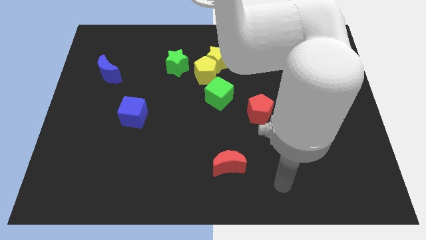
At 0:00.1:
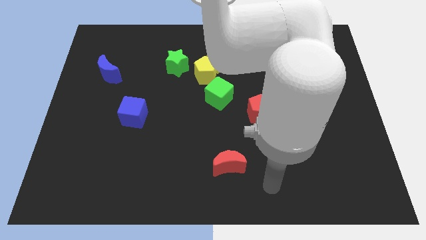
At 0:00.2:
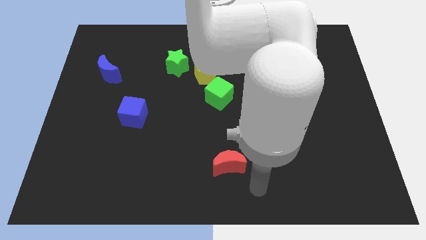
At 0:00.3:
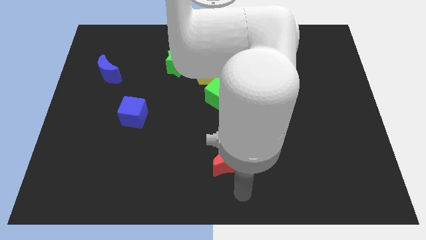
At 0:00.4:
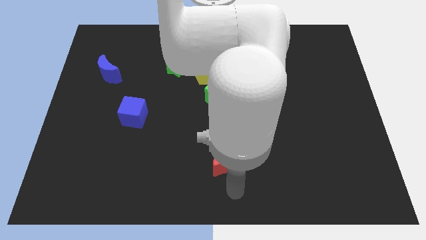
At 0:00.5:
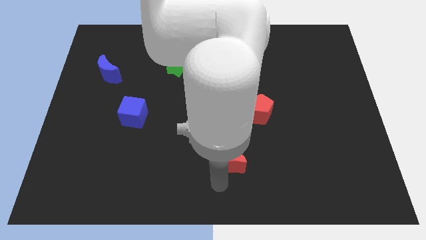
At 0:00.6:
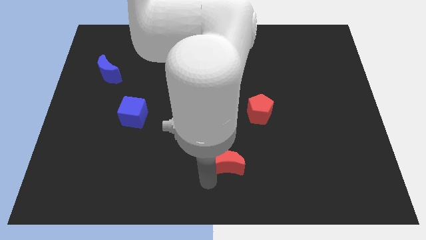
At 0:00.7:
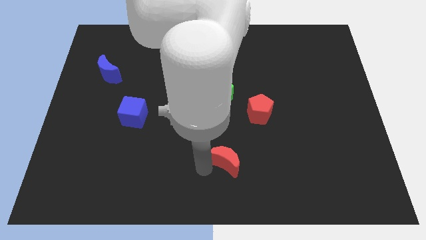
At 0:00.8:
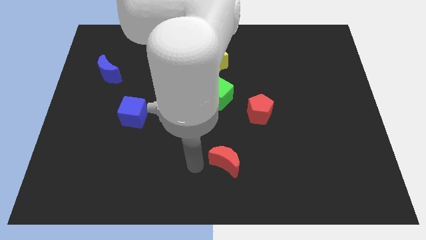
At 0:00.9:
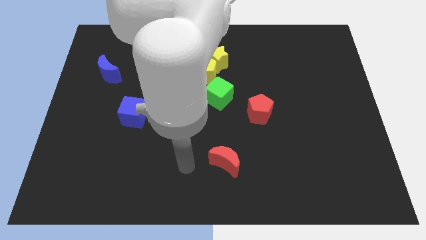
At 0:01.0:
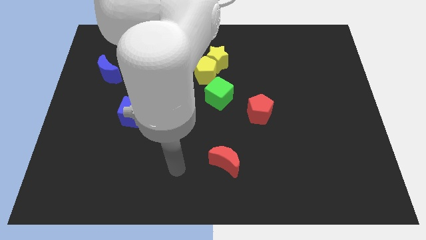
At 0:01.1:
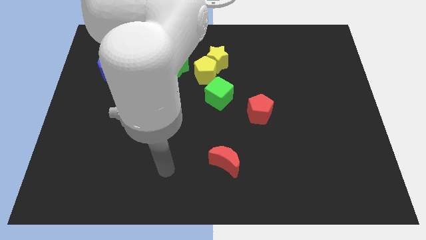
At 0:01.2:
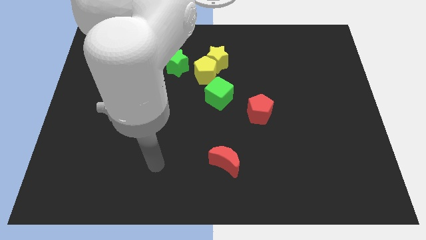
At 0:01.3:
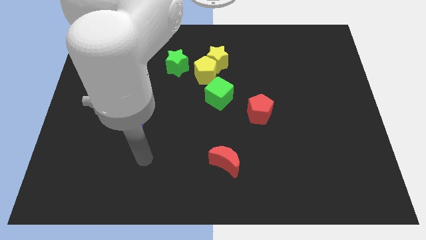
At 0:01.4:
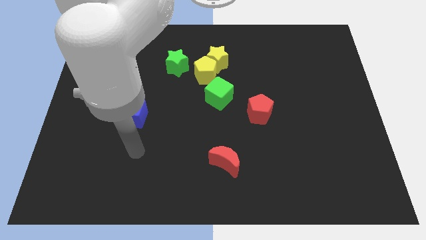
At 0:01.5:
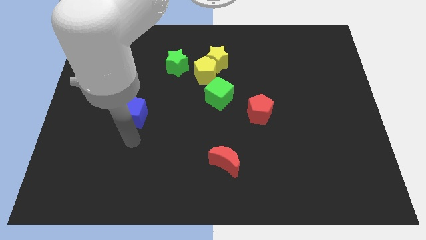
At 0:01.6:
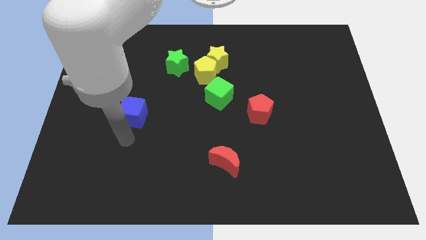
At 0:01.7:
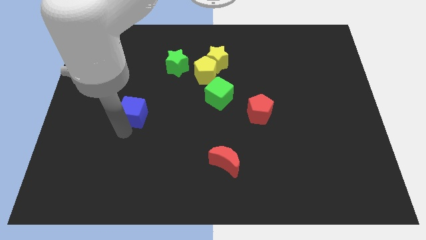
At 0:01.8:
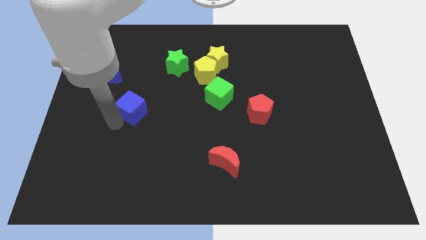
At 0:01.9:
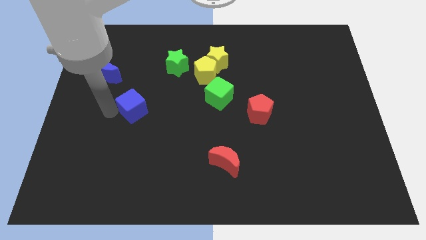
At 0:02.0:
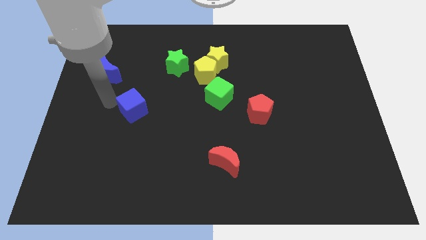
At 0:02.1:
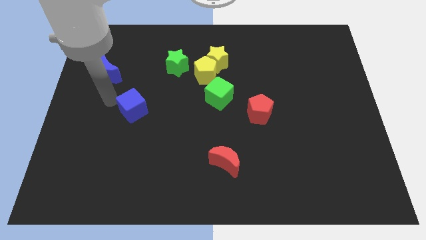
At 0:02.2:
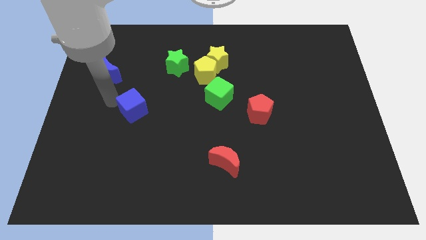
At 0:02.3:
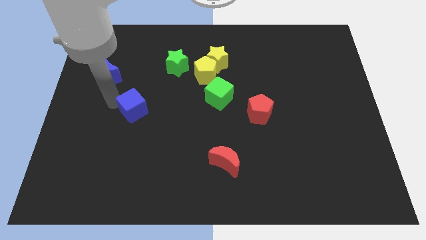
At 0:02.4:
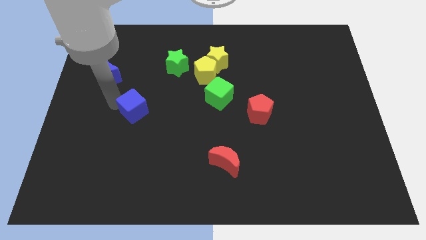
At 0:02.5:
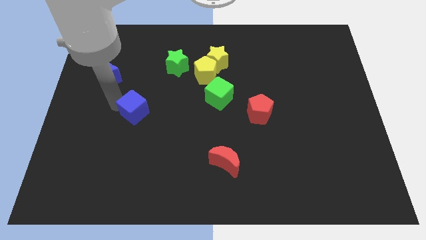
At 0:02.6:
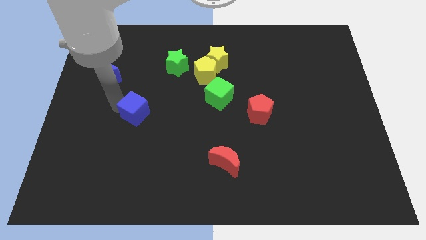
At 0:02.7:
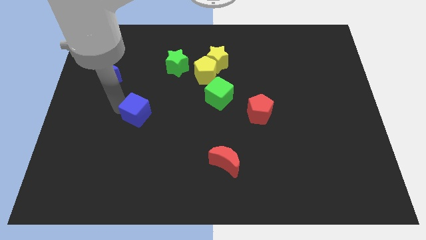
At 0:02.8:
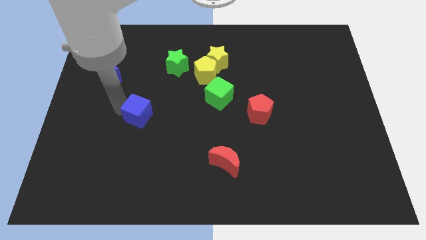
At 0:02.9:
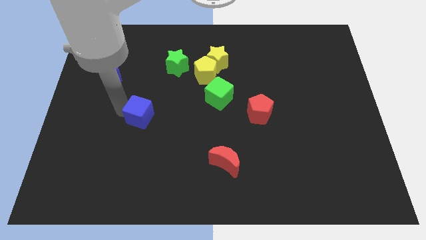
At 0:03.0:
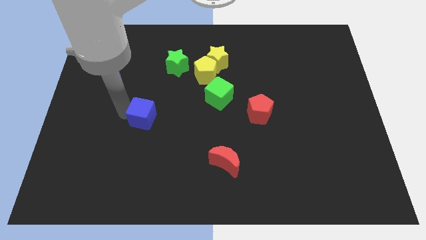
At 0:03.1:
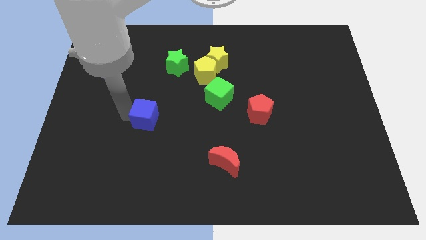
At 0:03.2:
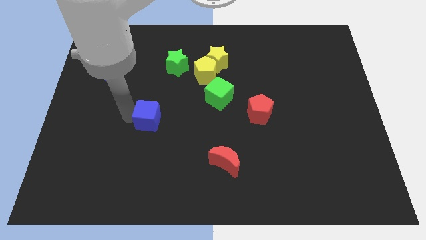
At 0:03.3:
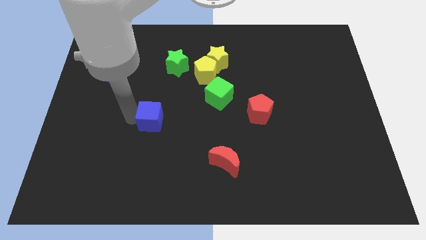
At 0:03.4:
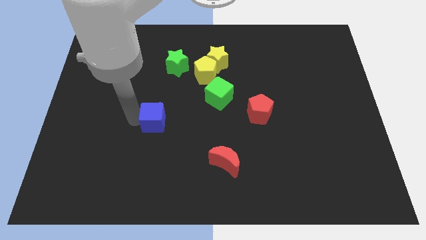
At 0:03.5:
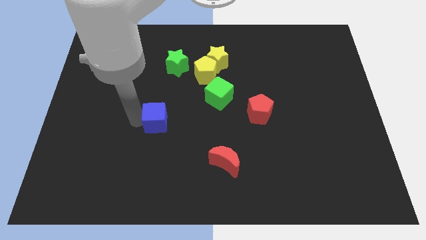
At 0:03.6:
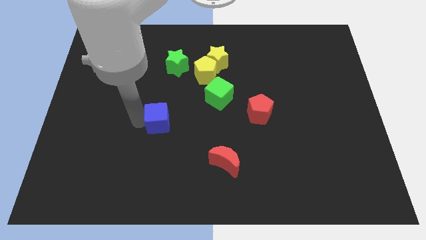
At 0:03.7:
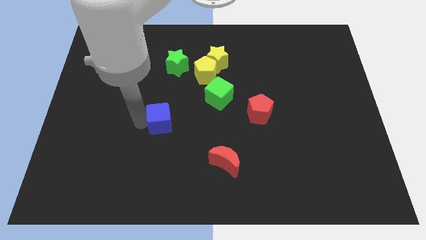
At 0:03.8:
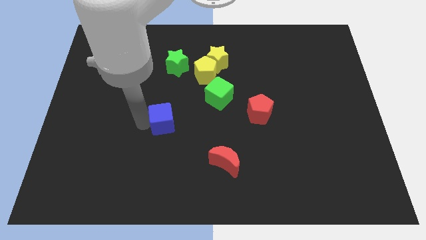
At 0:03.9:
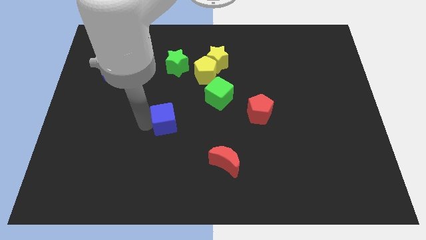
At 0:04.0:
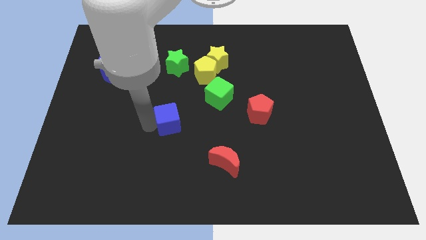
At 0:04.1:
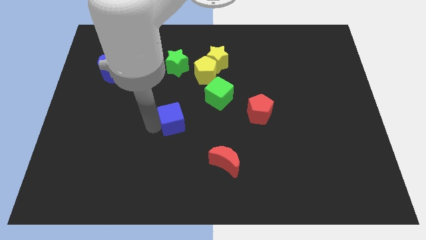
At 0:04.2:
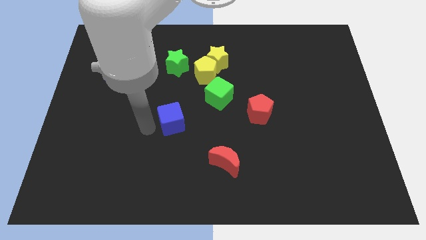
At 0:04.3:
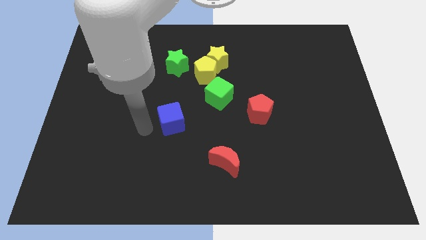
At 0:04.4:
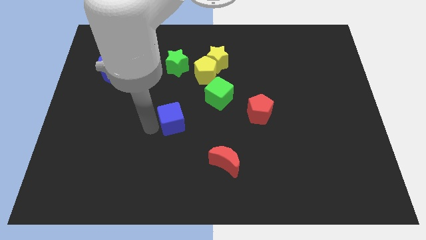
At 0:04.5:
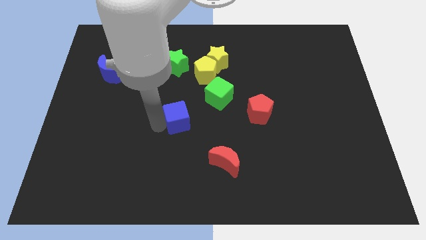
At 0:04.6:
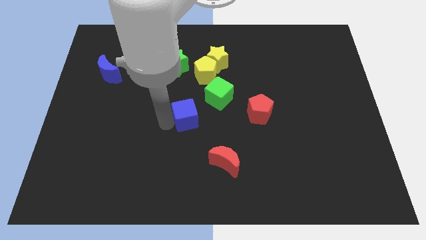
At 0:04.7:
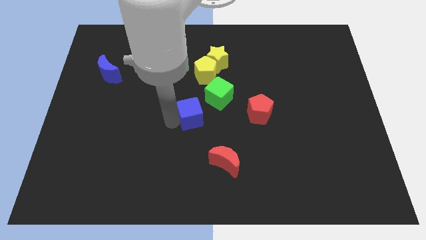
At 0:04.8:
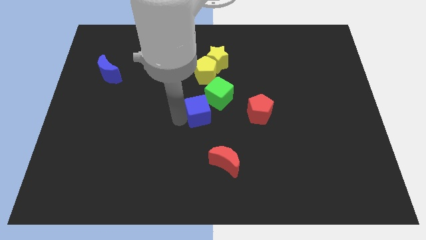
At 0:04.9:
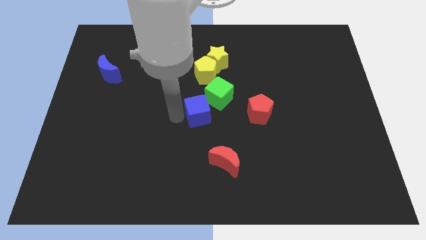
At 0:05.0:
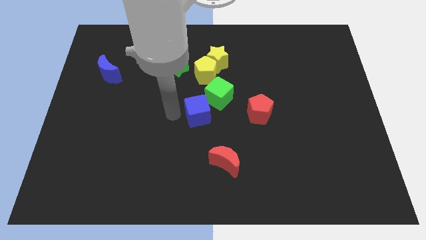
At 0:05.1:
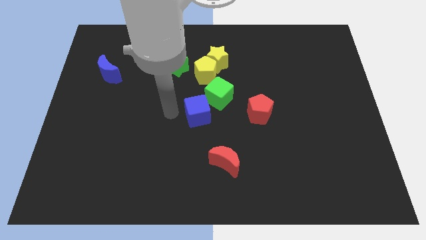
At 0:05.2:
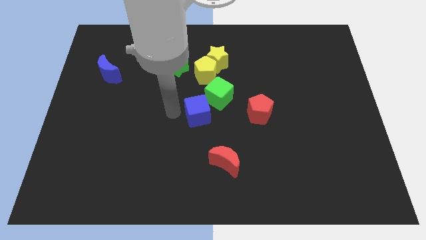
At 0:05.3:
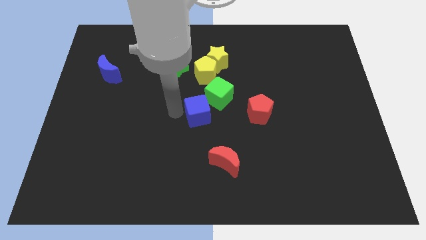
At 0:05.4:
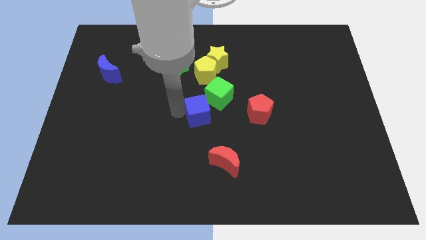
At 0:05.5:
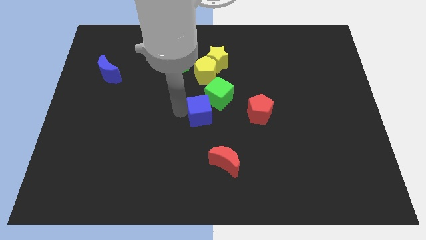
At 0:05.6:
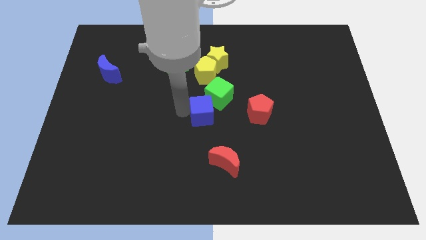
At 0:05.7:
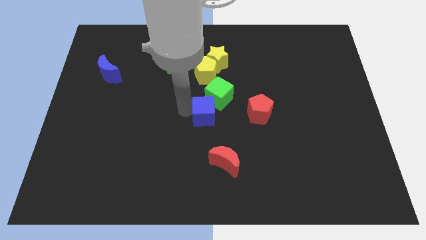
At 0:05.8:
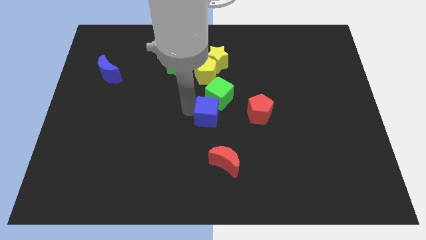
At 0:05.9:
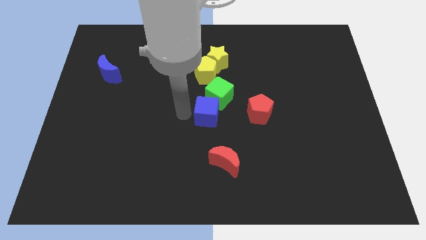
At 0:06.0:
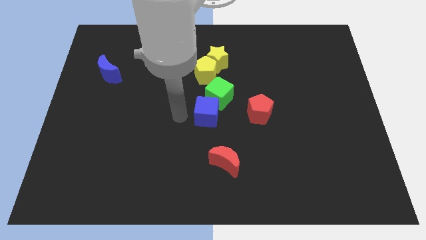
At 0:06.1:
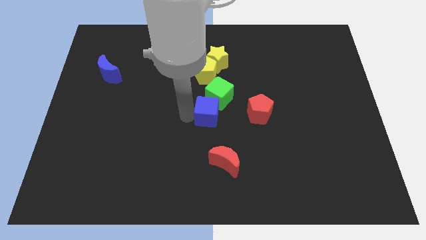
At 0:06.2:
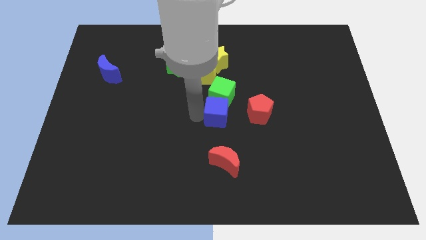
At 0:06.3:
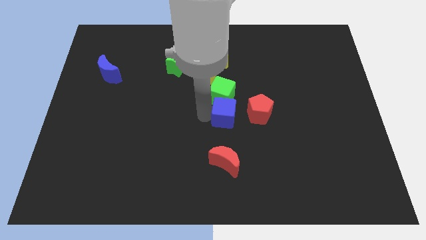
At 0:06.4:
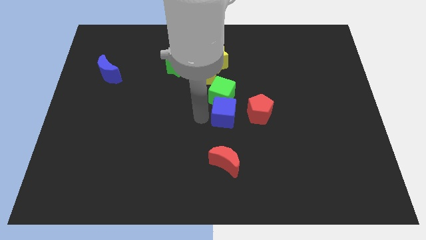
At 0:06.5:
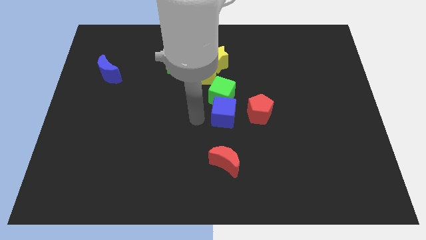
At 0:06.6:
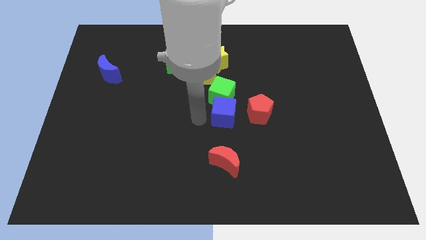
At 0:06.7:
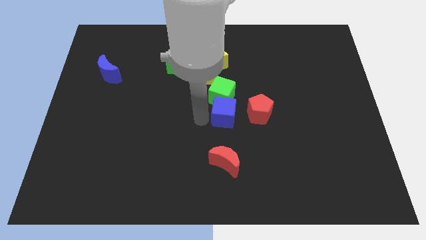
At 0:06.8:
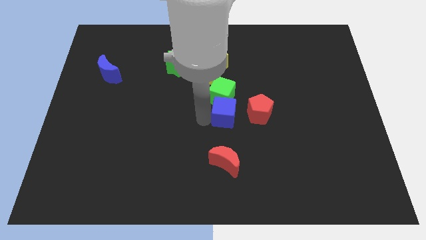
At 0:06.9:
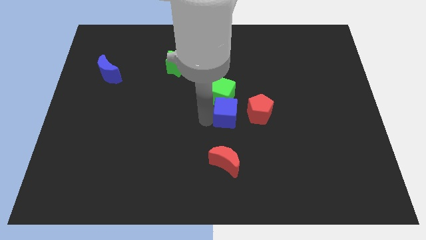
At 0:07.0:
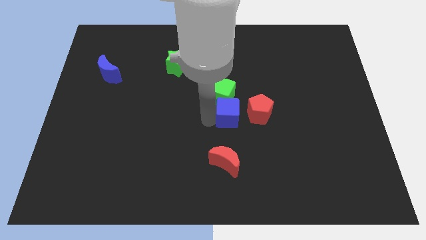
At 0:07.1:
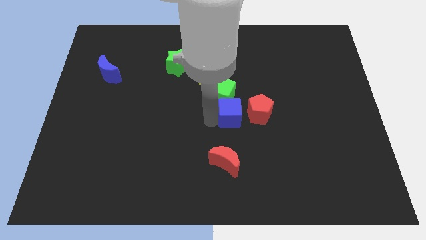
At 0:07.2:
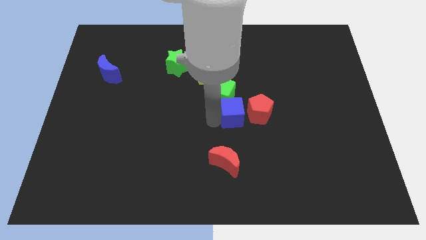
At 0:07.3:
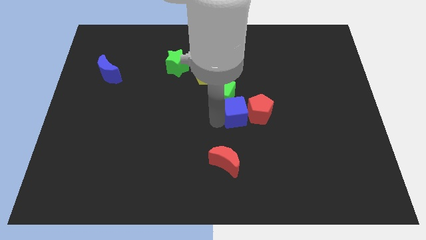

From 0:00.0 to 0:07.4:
move the blue cube to the red pentagon
